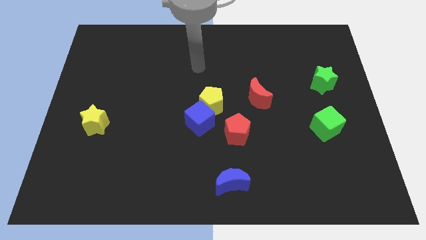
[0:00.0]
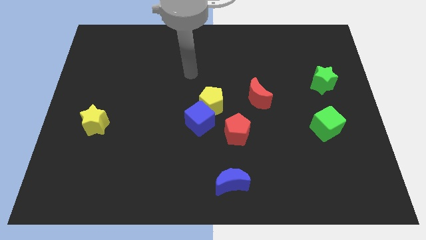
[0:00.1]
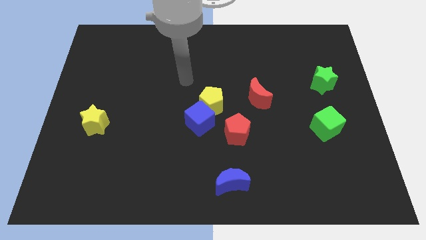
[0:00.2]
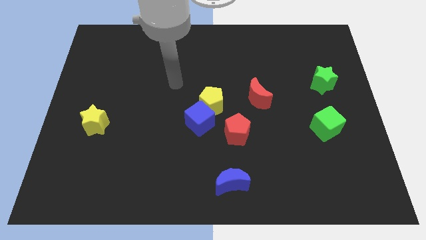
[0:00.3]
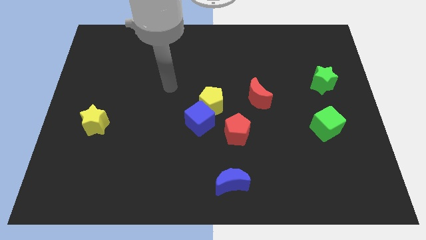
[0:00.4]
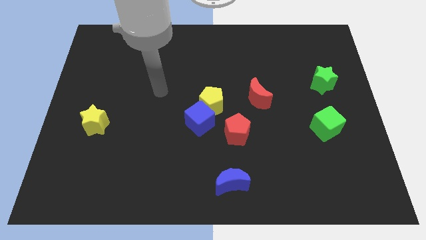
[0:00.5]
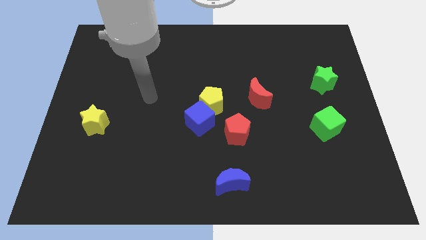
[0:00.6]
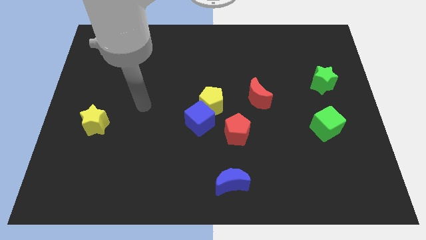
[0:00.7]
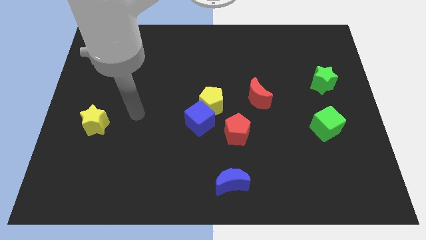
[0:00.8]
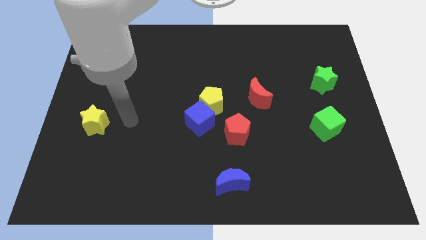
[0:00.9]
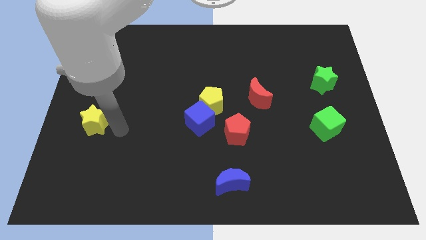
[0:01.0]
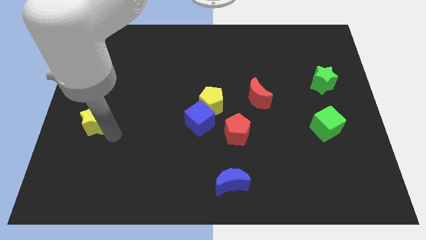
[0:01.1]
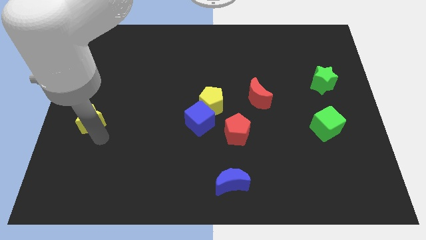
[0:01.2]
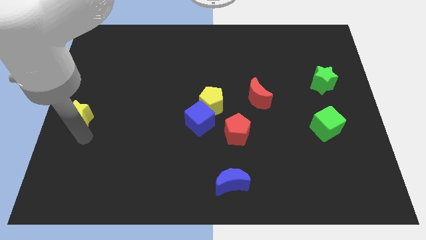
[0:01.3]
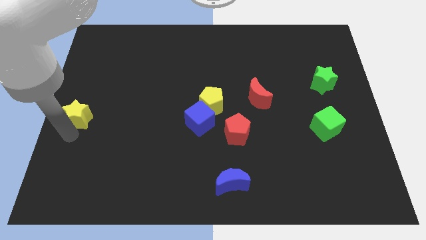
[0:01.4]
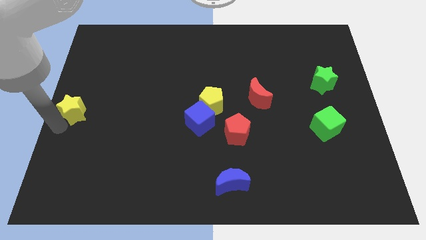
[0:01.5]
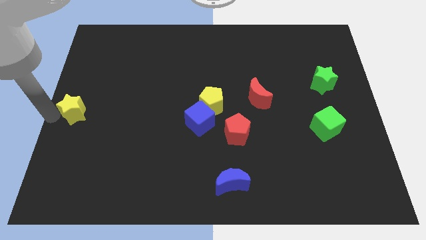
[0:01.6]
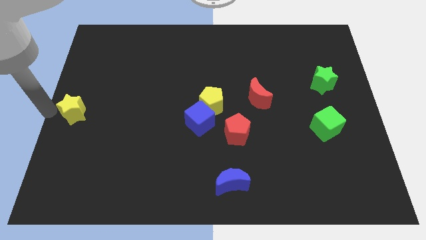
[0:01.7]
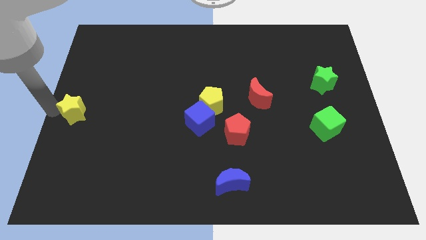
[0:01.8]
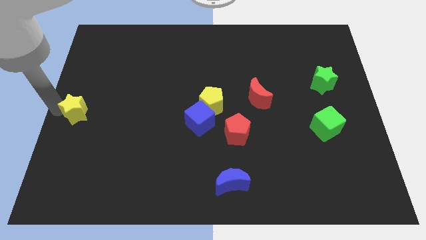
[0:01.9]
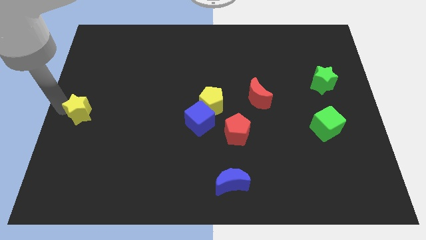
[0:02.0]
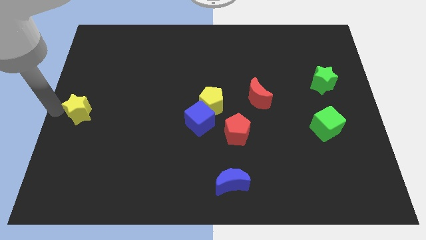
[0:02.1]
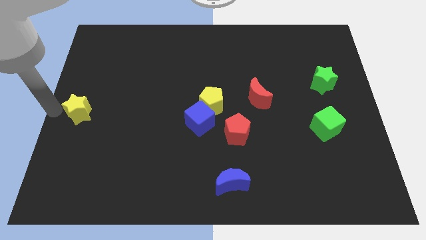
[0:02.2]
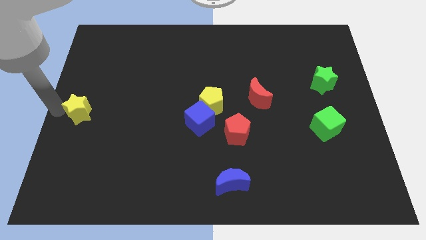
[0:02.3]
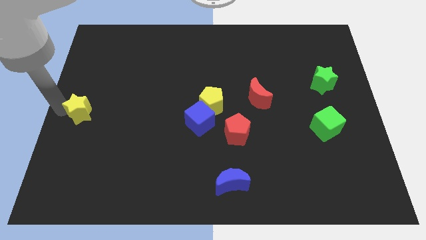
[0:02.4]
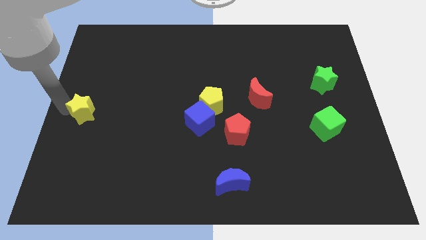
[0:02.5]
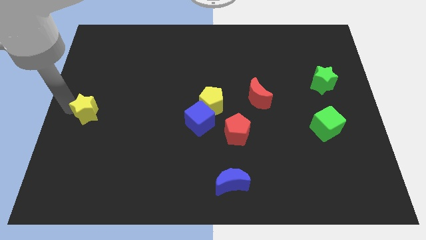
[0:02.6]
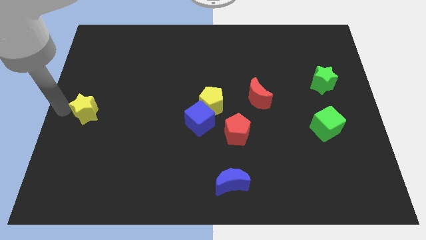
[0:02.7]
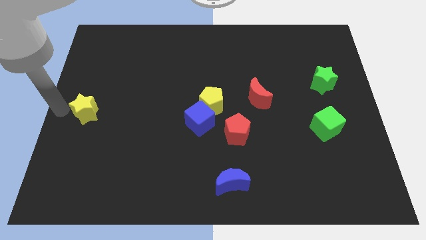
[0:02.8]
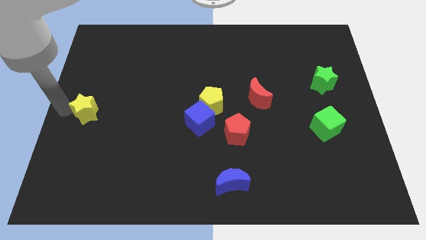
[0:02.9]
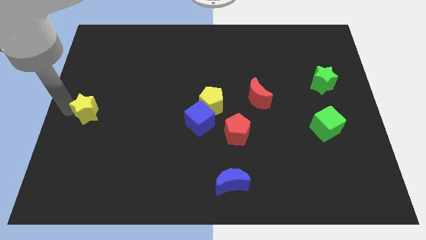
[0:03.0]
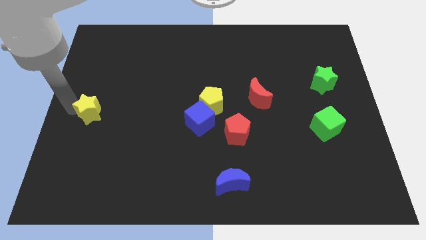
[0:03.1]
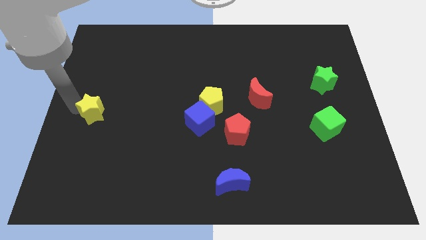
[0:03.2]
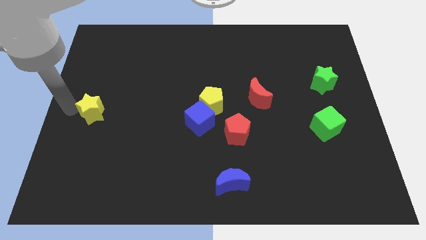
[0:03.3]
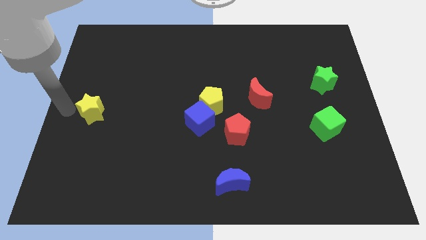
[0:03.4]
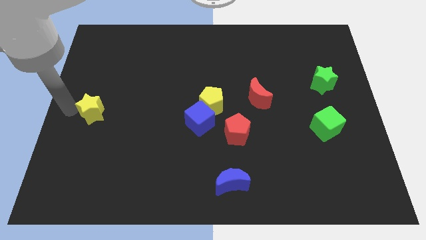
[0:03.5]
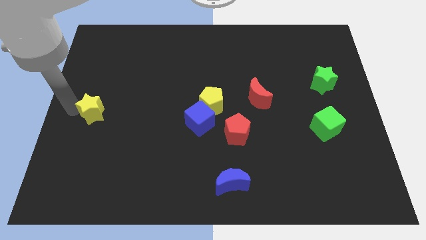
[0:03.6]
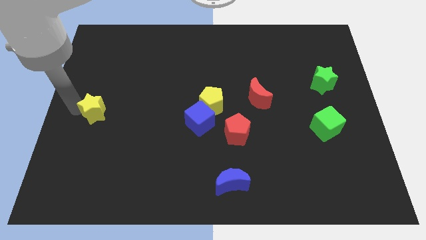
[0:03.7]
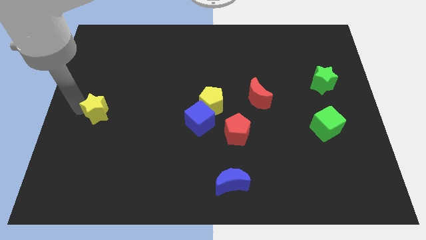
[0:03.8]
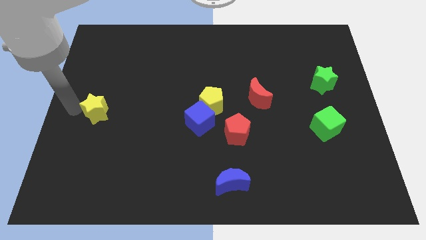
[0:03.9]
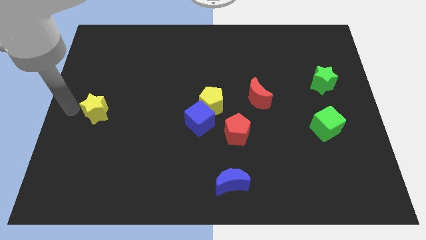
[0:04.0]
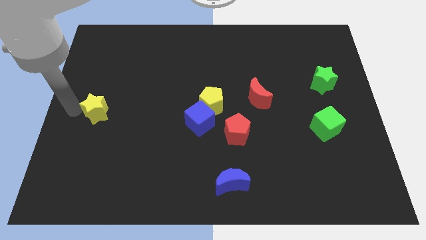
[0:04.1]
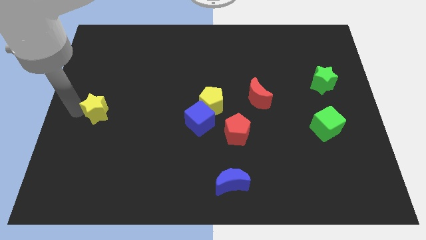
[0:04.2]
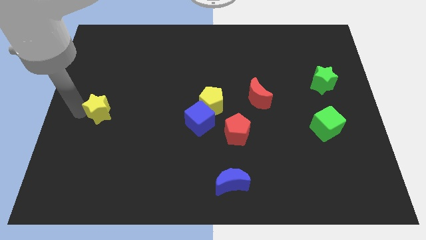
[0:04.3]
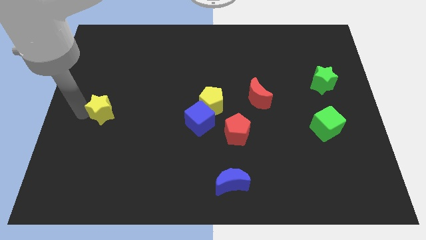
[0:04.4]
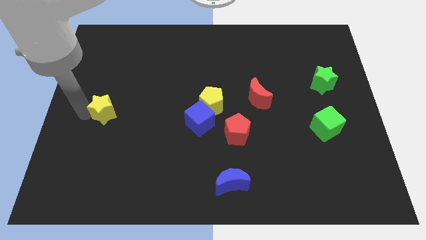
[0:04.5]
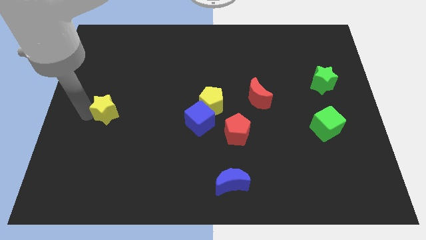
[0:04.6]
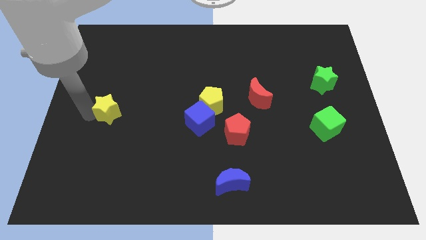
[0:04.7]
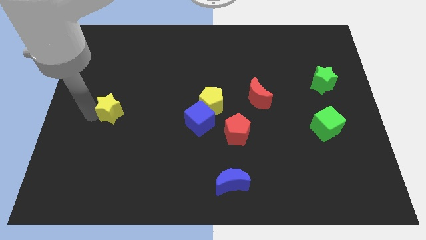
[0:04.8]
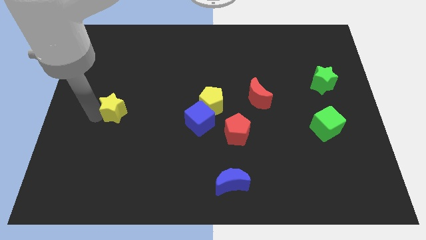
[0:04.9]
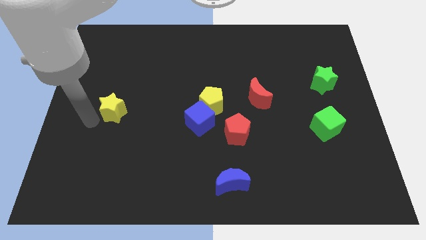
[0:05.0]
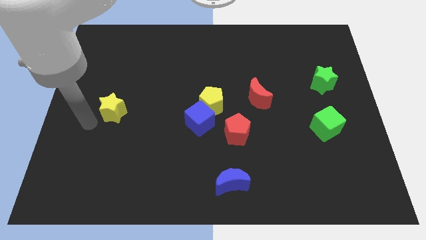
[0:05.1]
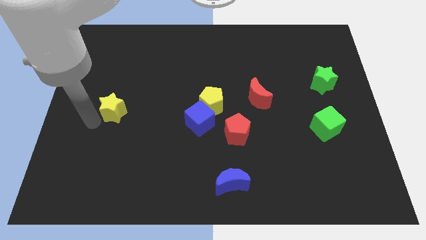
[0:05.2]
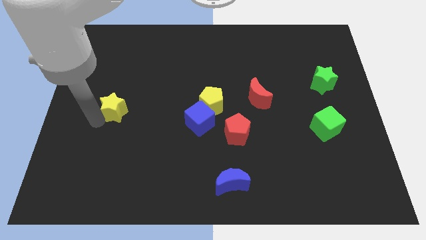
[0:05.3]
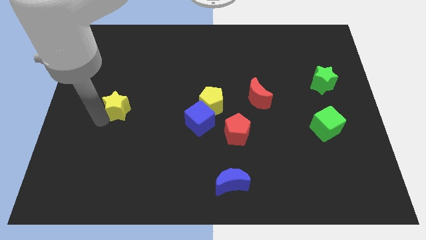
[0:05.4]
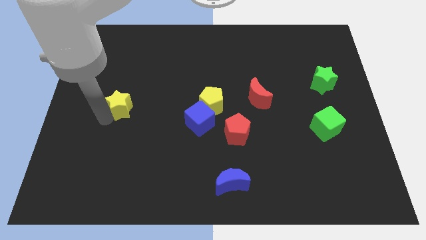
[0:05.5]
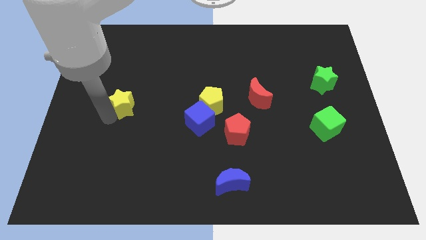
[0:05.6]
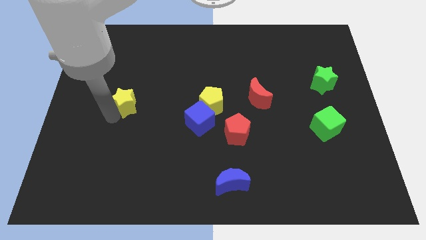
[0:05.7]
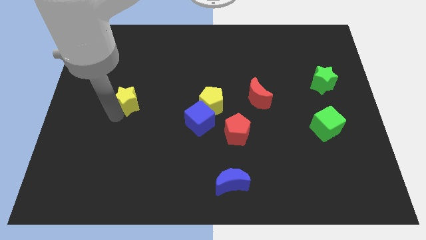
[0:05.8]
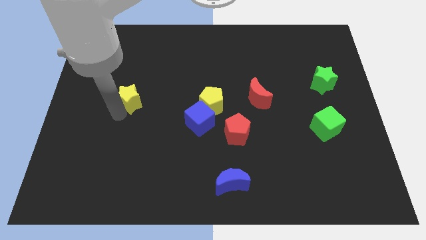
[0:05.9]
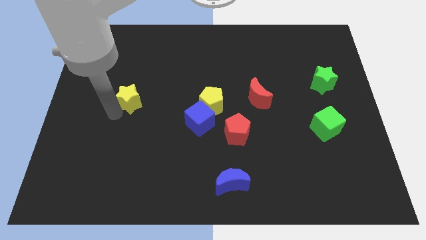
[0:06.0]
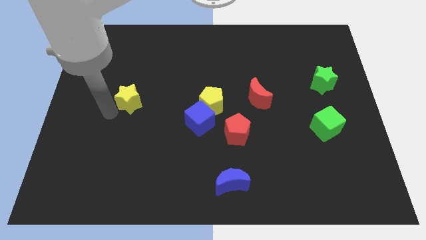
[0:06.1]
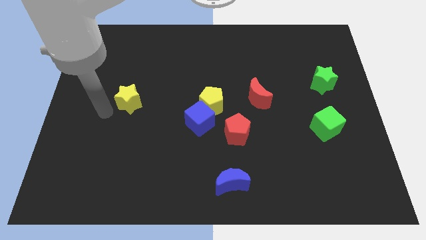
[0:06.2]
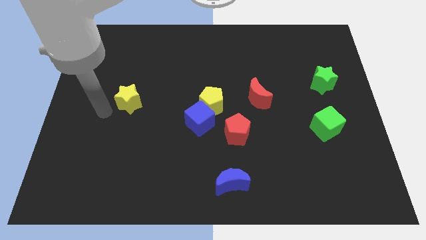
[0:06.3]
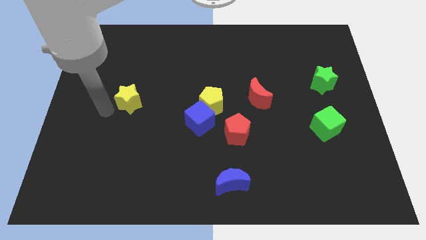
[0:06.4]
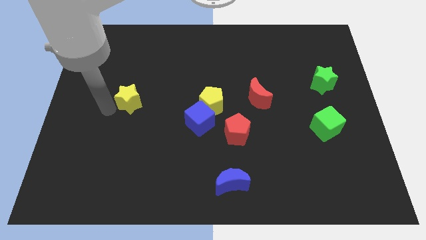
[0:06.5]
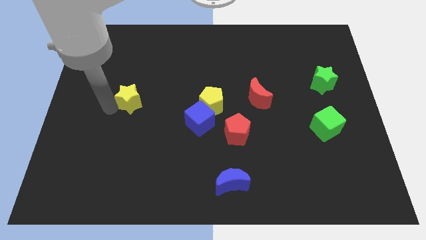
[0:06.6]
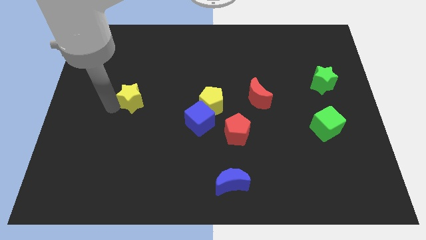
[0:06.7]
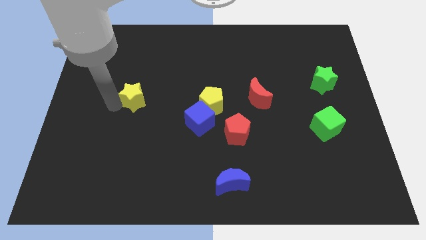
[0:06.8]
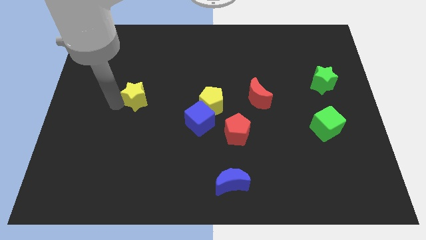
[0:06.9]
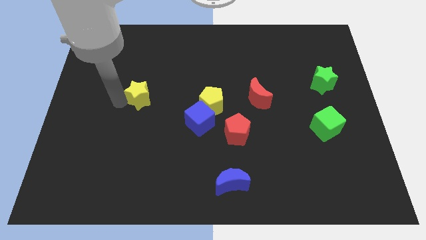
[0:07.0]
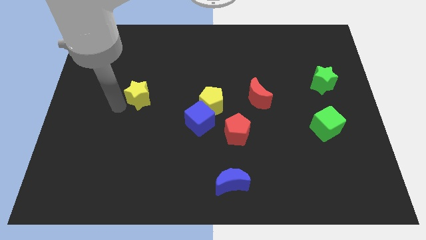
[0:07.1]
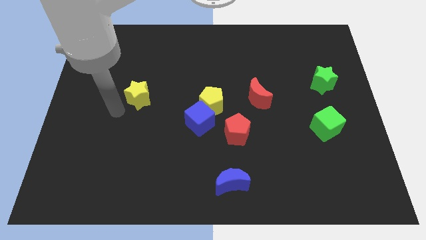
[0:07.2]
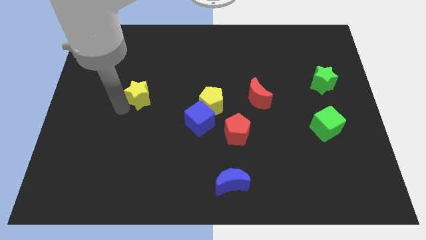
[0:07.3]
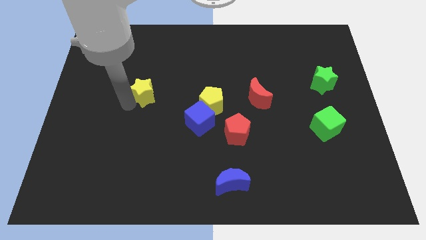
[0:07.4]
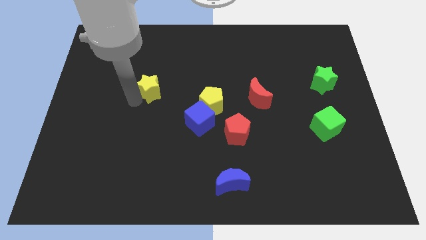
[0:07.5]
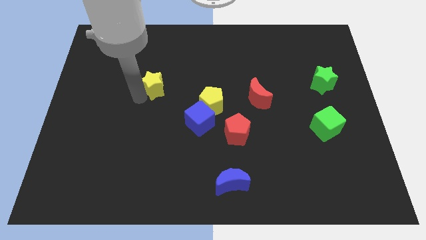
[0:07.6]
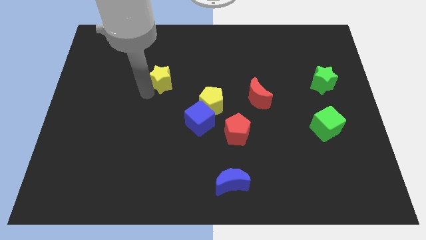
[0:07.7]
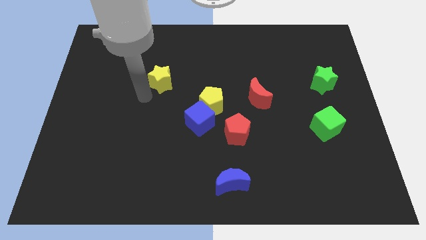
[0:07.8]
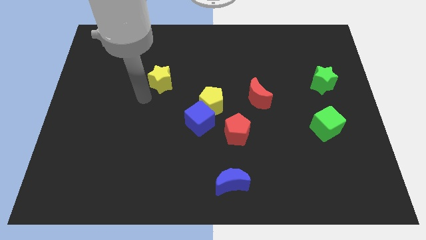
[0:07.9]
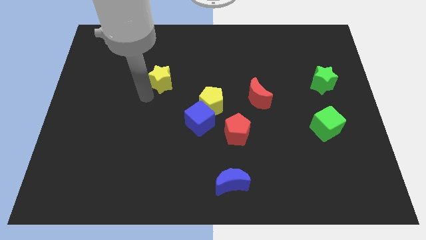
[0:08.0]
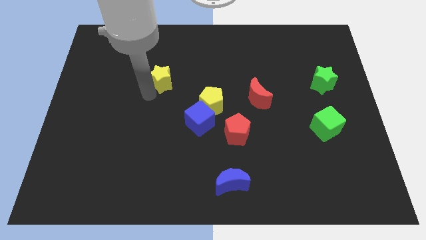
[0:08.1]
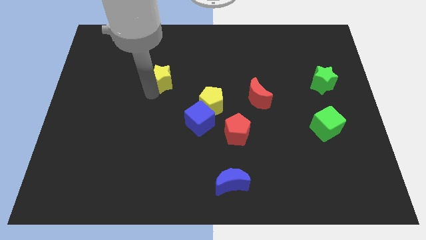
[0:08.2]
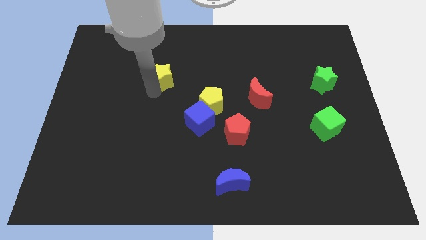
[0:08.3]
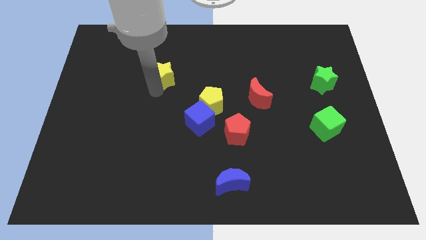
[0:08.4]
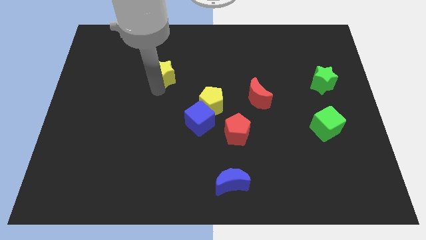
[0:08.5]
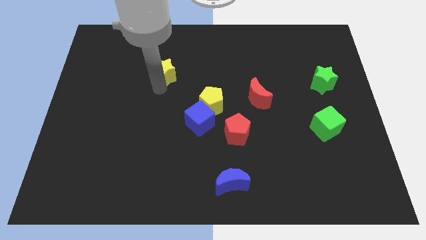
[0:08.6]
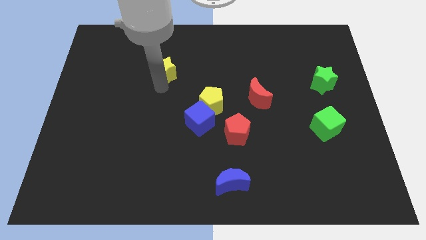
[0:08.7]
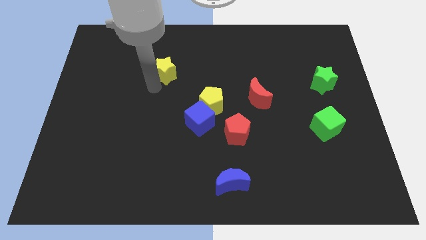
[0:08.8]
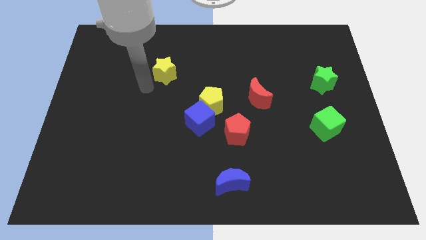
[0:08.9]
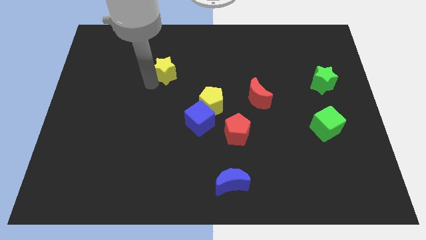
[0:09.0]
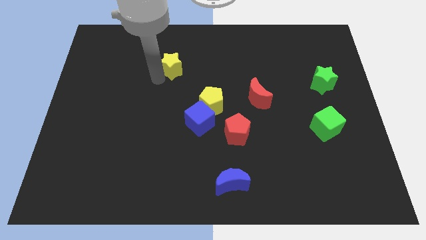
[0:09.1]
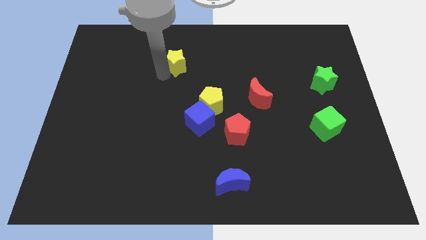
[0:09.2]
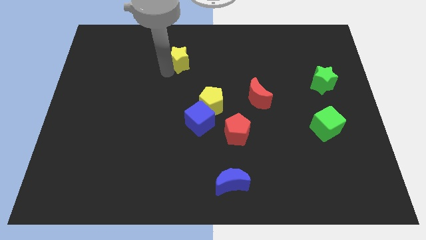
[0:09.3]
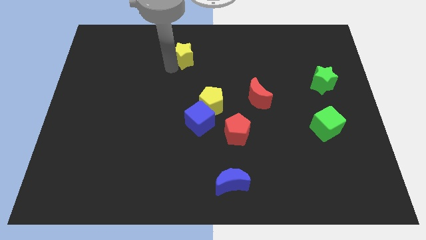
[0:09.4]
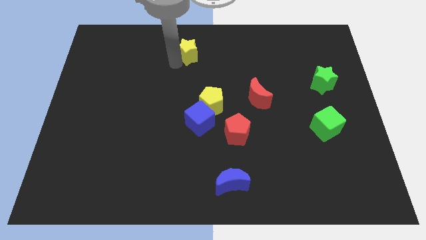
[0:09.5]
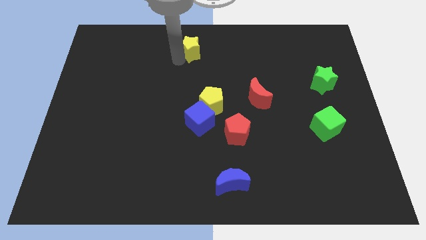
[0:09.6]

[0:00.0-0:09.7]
push the yellow star to the towards your base
